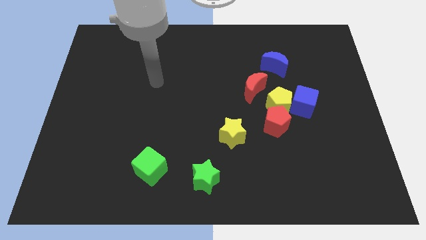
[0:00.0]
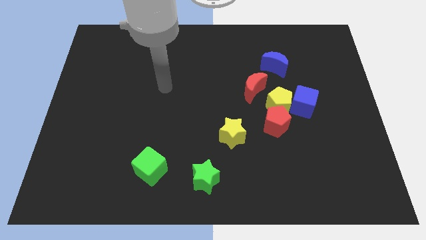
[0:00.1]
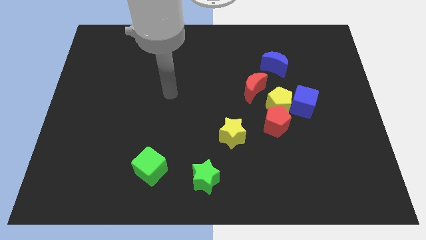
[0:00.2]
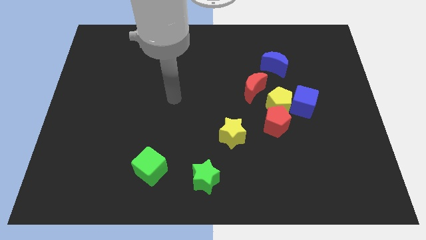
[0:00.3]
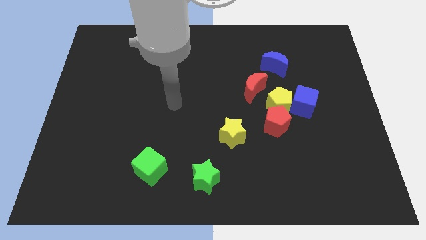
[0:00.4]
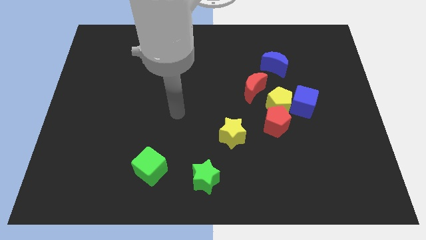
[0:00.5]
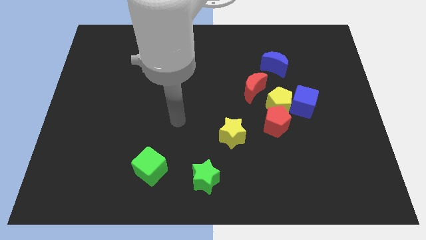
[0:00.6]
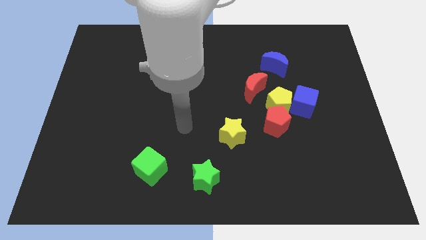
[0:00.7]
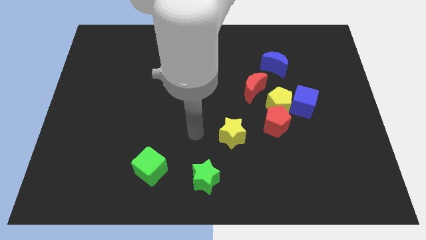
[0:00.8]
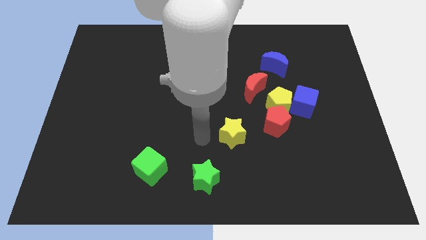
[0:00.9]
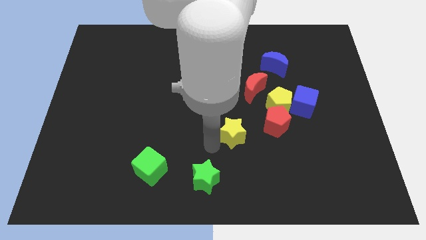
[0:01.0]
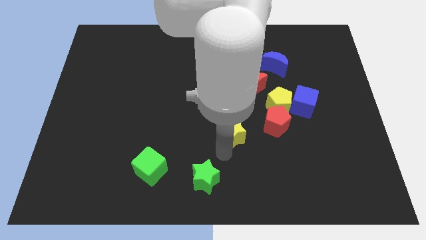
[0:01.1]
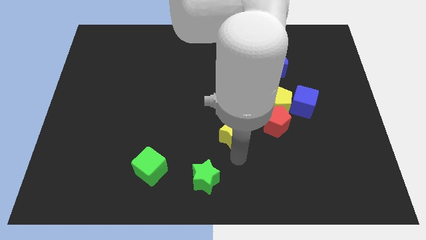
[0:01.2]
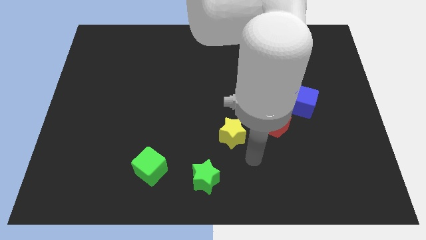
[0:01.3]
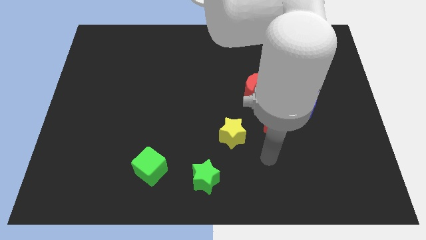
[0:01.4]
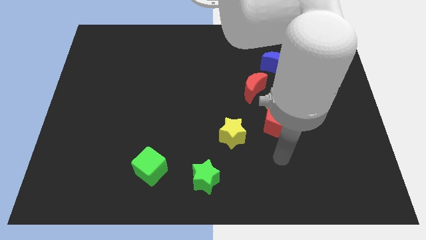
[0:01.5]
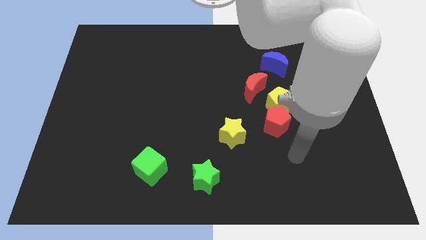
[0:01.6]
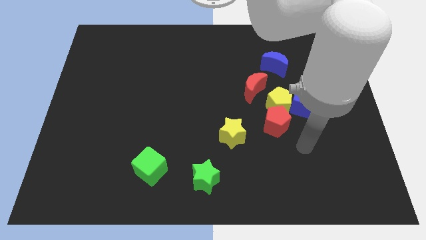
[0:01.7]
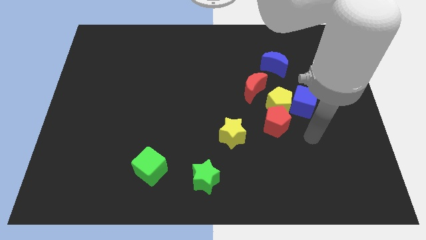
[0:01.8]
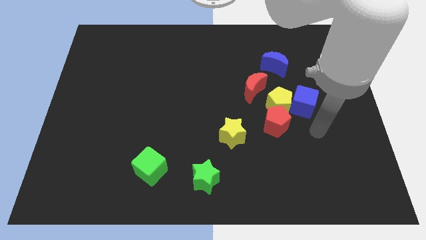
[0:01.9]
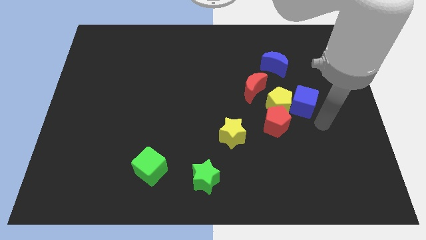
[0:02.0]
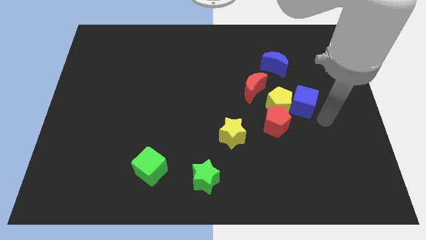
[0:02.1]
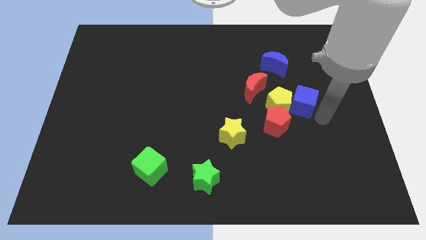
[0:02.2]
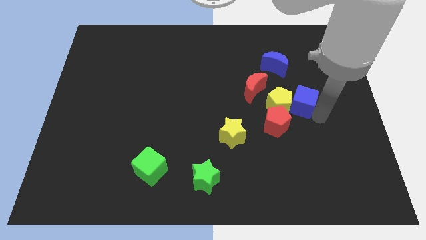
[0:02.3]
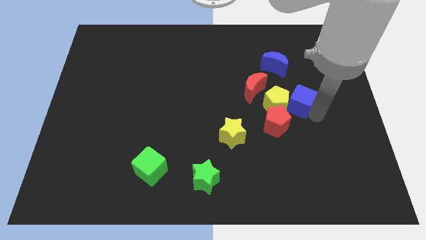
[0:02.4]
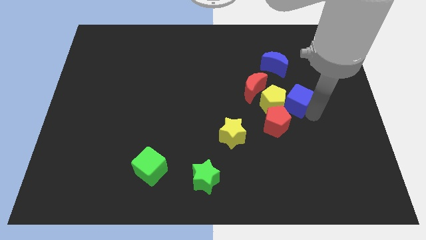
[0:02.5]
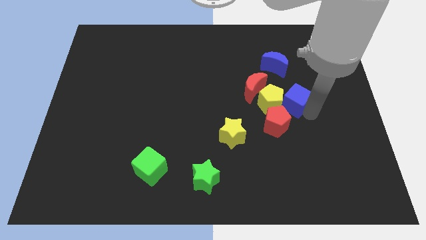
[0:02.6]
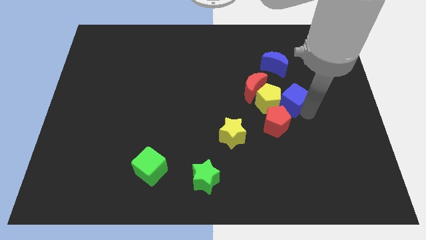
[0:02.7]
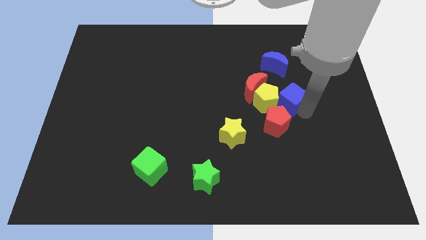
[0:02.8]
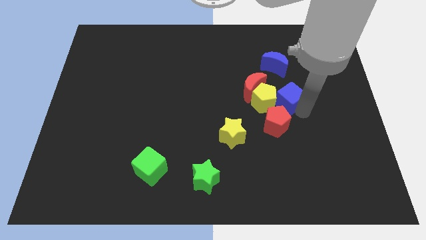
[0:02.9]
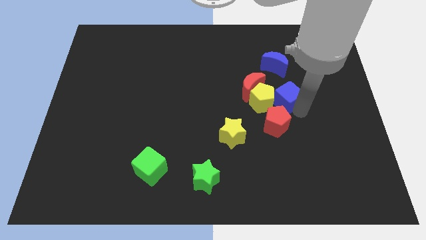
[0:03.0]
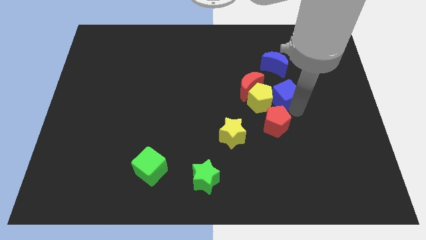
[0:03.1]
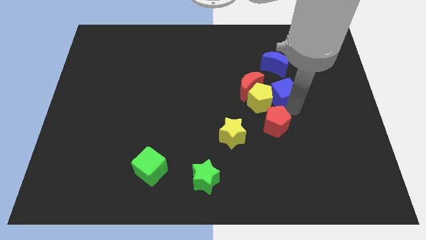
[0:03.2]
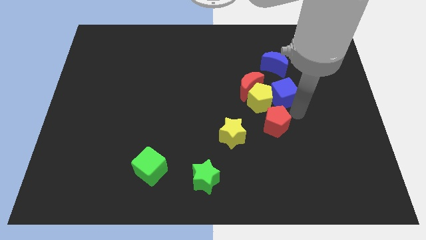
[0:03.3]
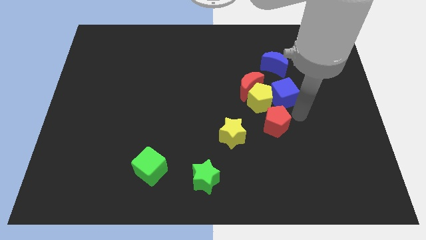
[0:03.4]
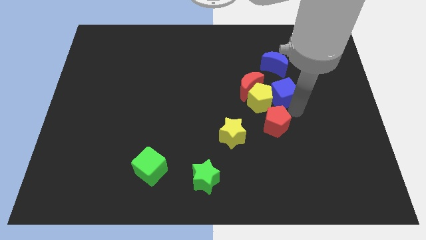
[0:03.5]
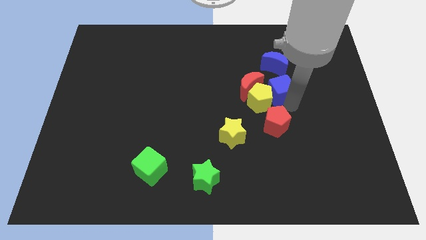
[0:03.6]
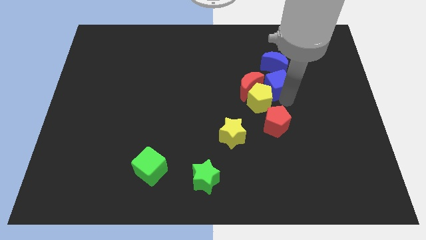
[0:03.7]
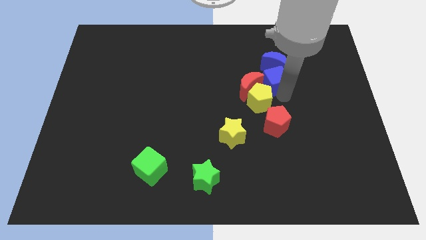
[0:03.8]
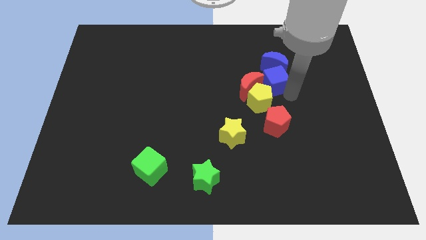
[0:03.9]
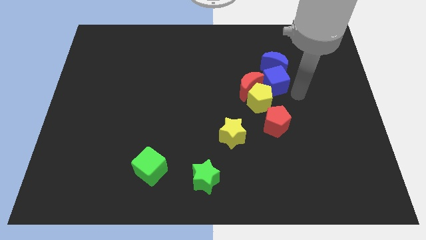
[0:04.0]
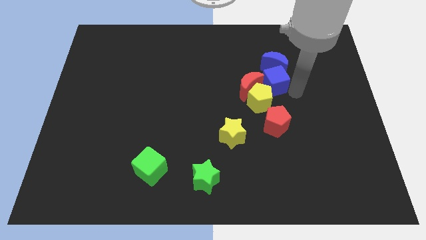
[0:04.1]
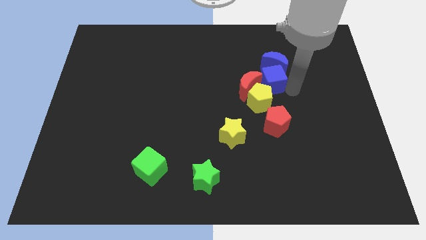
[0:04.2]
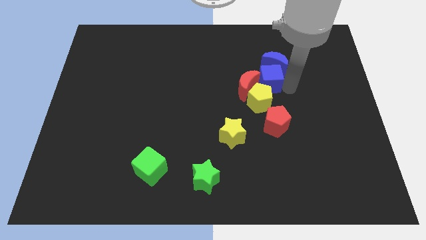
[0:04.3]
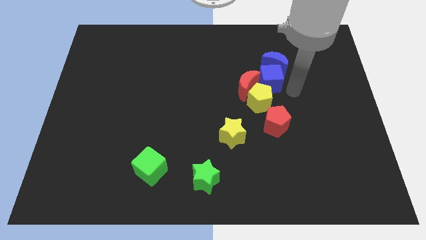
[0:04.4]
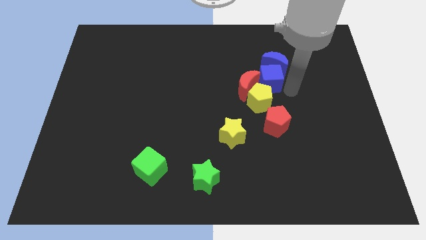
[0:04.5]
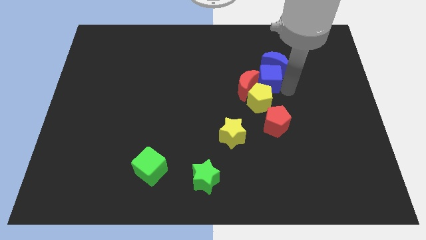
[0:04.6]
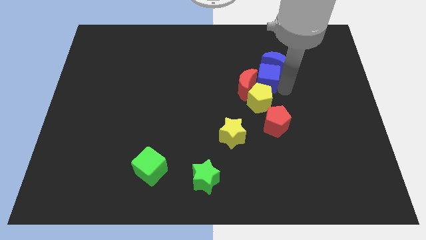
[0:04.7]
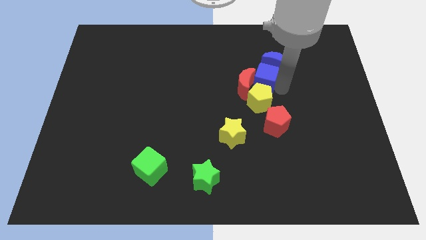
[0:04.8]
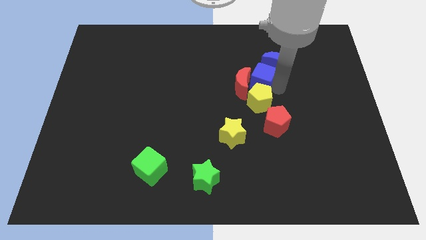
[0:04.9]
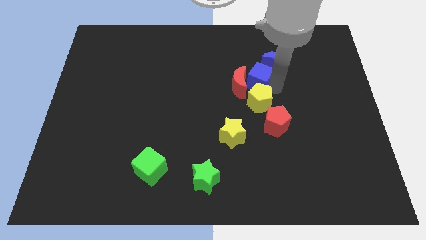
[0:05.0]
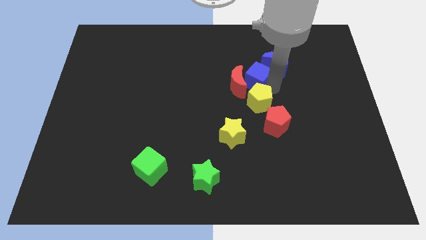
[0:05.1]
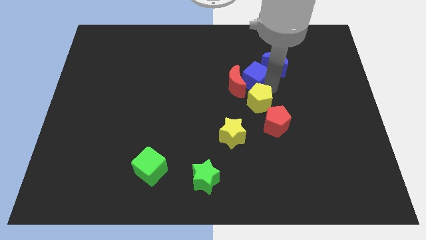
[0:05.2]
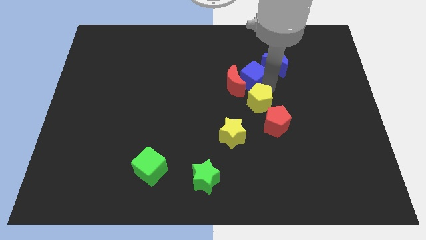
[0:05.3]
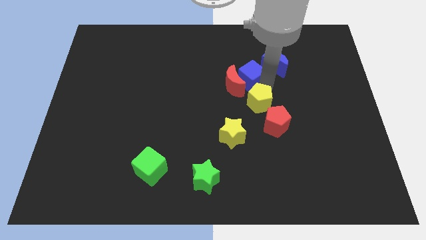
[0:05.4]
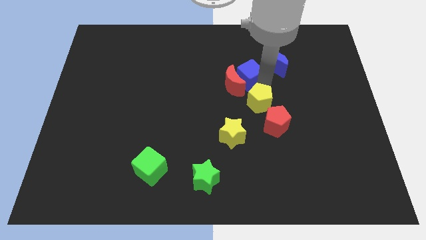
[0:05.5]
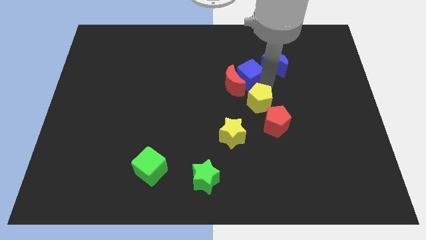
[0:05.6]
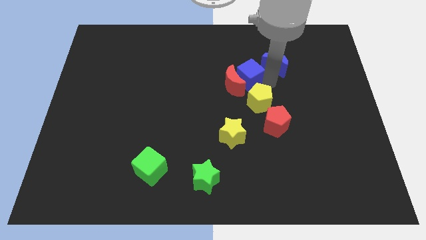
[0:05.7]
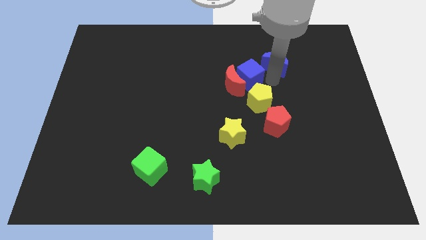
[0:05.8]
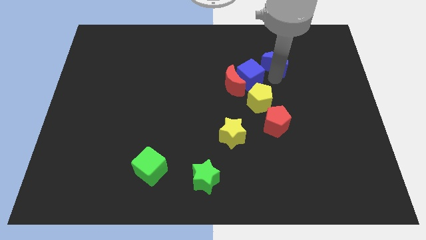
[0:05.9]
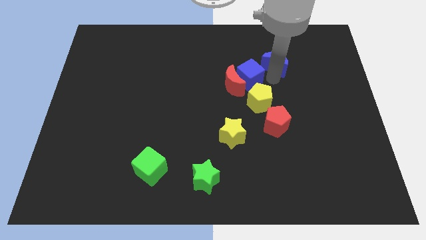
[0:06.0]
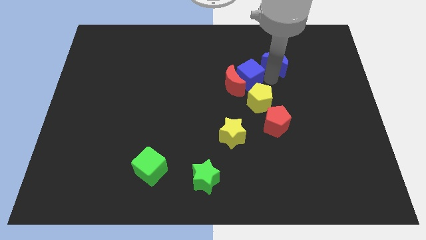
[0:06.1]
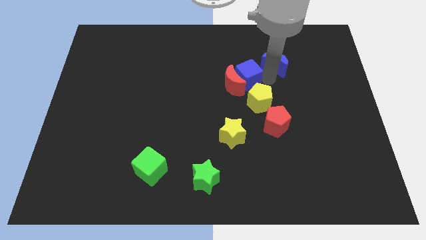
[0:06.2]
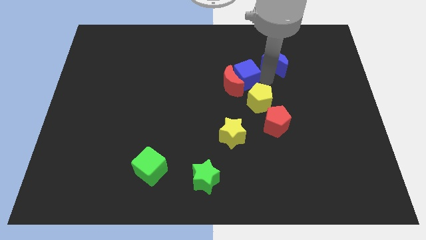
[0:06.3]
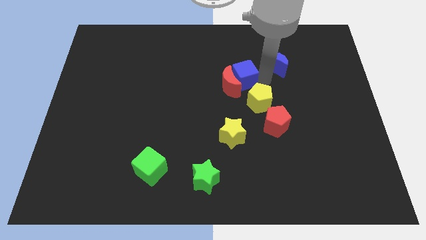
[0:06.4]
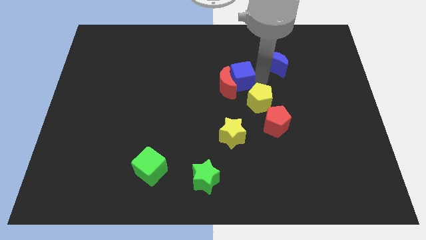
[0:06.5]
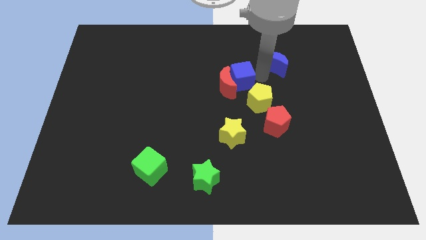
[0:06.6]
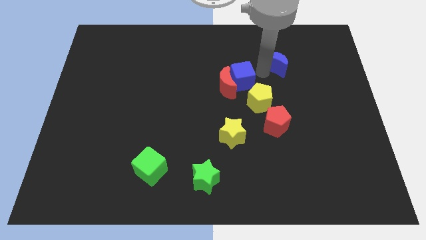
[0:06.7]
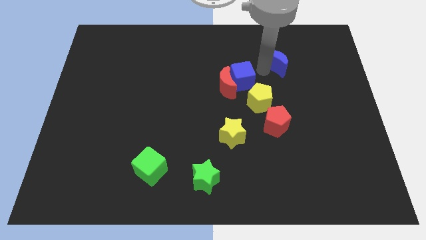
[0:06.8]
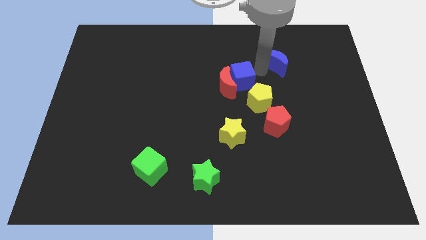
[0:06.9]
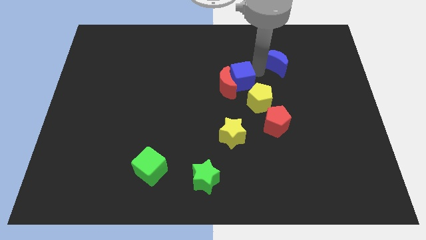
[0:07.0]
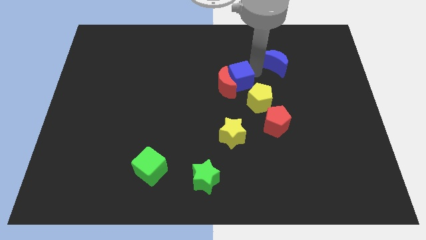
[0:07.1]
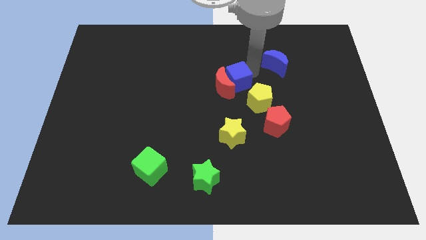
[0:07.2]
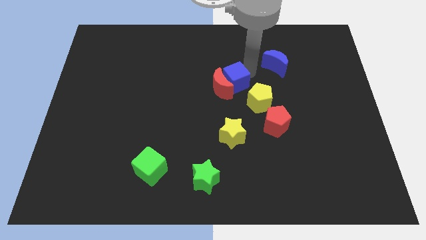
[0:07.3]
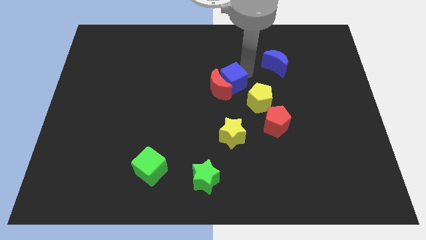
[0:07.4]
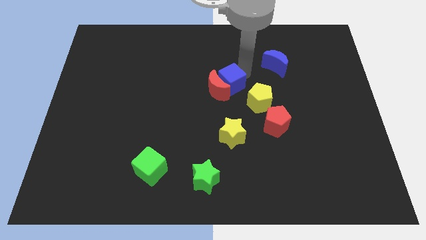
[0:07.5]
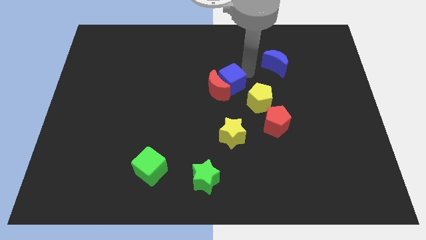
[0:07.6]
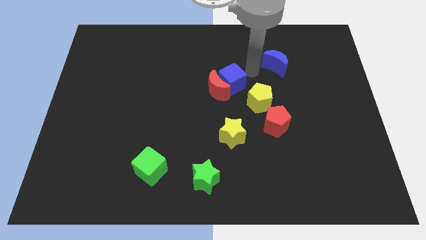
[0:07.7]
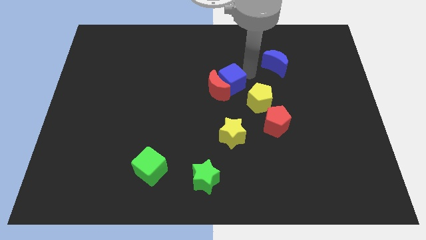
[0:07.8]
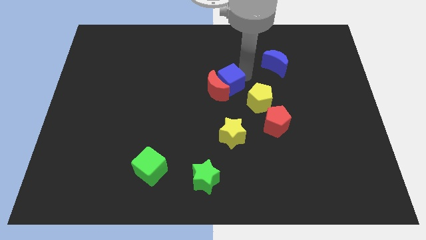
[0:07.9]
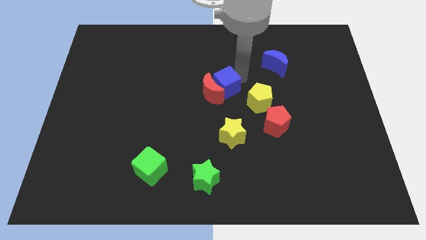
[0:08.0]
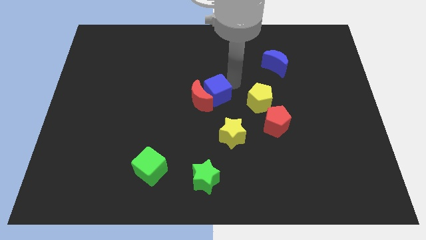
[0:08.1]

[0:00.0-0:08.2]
slide the blue cube left
